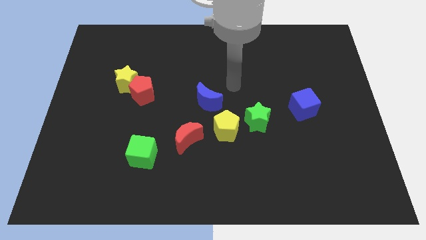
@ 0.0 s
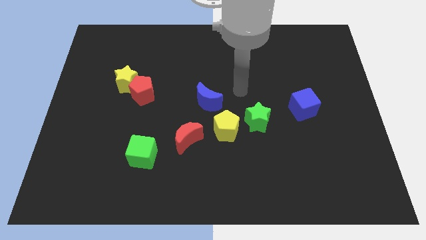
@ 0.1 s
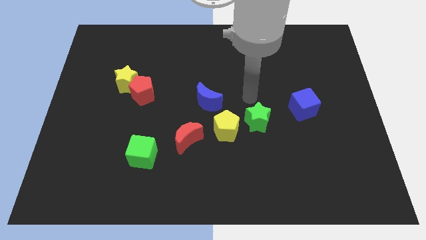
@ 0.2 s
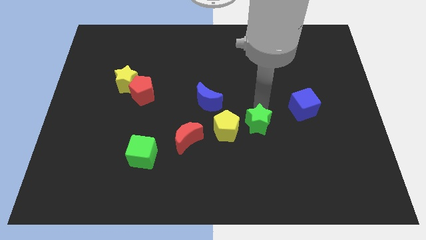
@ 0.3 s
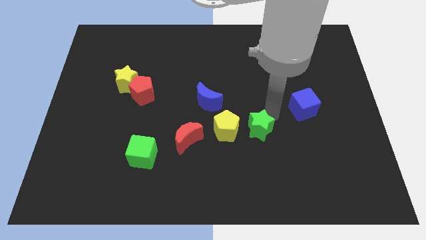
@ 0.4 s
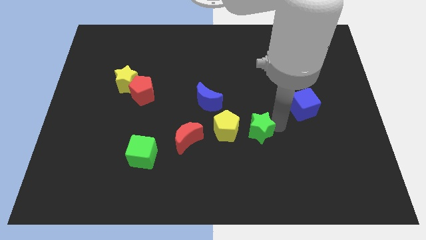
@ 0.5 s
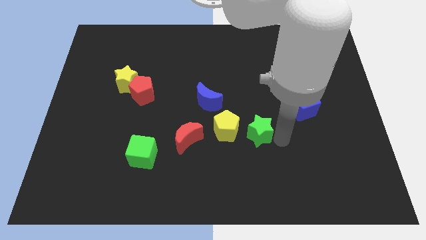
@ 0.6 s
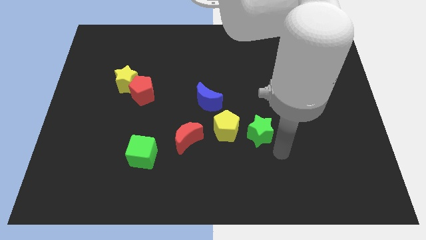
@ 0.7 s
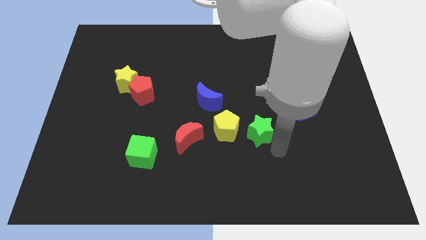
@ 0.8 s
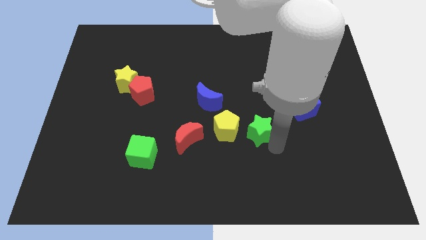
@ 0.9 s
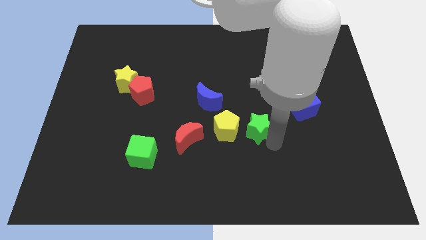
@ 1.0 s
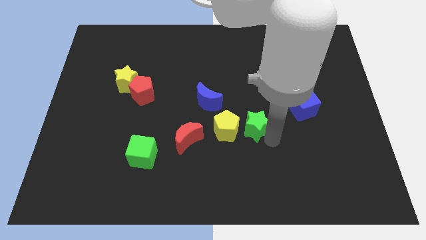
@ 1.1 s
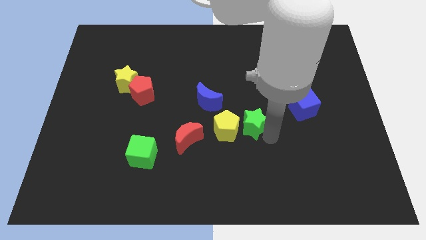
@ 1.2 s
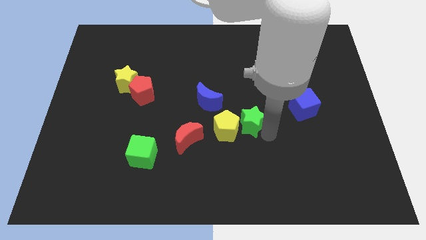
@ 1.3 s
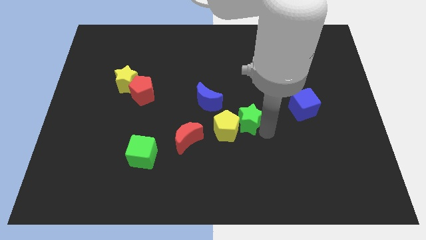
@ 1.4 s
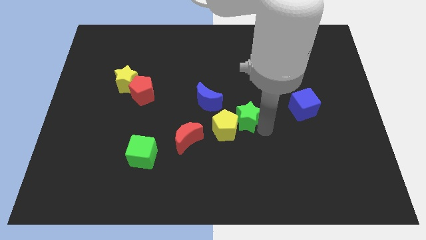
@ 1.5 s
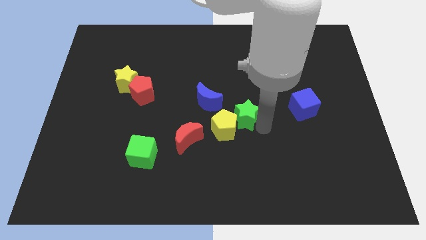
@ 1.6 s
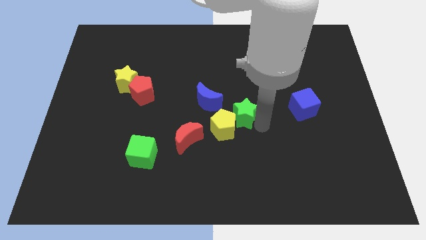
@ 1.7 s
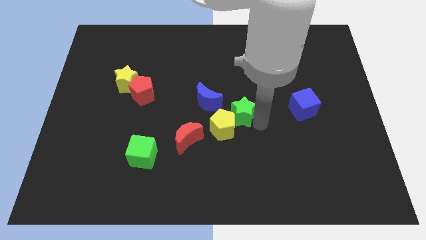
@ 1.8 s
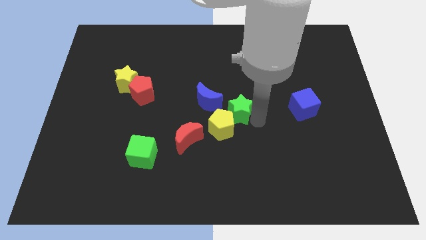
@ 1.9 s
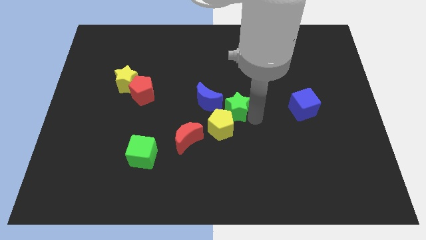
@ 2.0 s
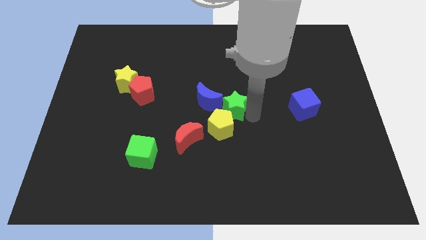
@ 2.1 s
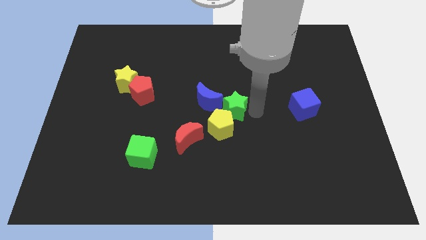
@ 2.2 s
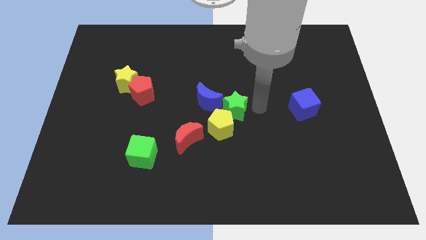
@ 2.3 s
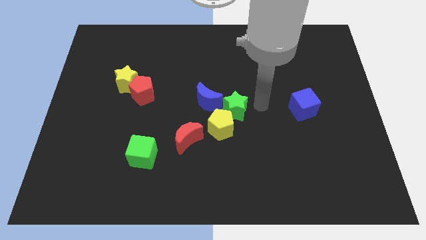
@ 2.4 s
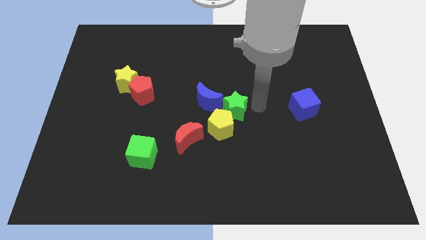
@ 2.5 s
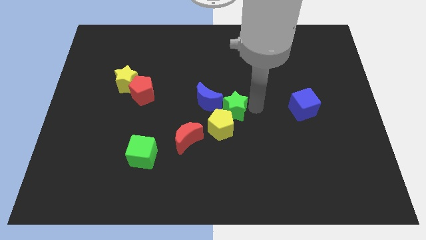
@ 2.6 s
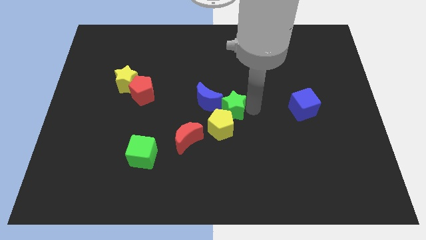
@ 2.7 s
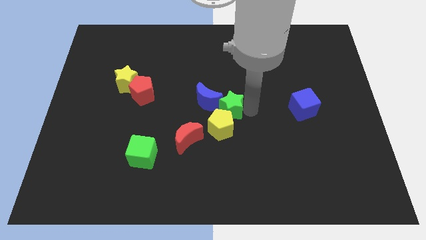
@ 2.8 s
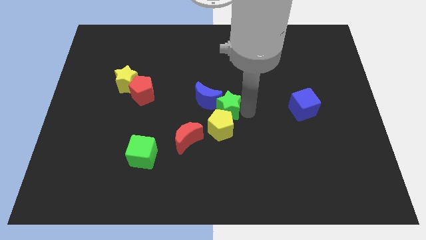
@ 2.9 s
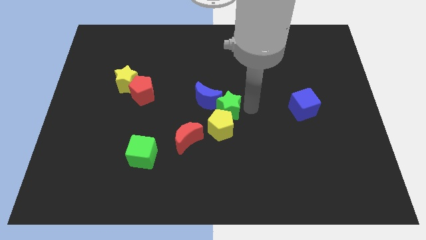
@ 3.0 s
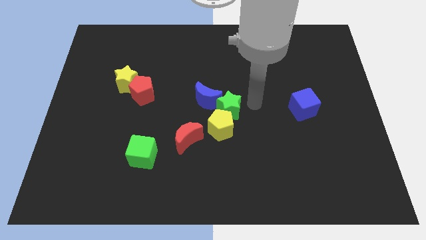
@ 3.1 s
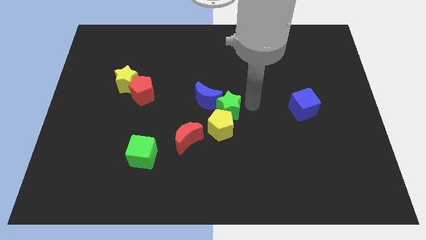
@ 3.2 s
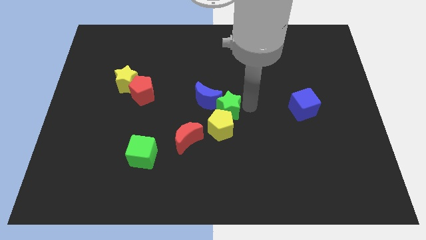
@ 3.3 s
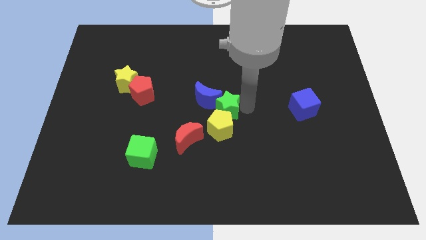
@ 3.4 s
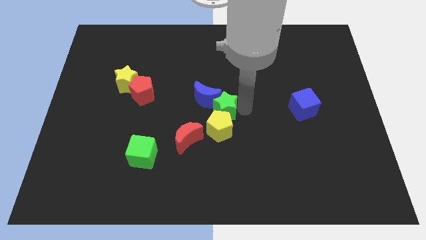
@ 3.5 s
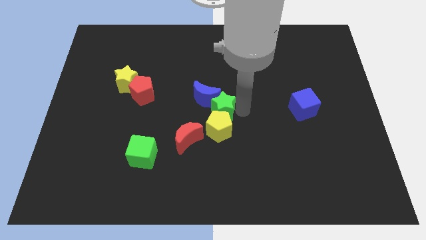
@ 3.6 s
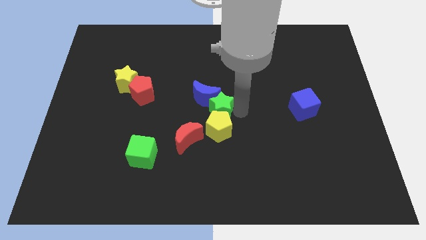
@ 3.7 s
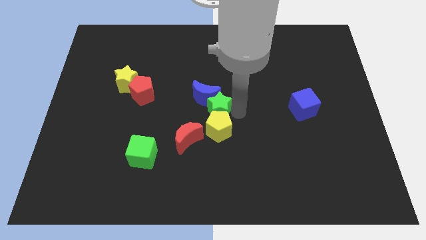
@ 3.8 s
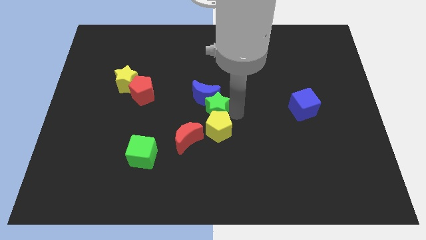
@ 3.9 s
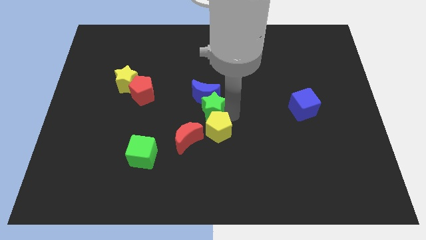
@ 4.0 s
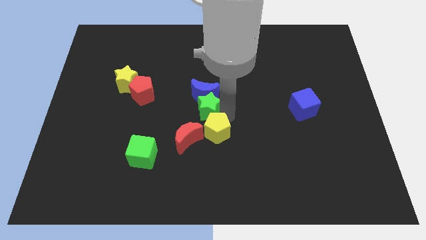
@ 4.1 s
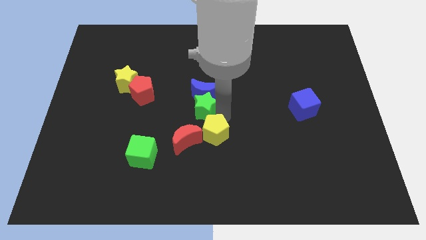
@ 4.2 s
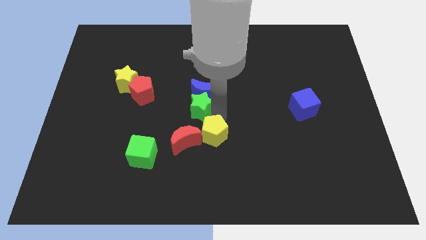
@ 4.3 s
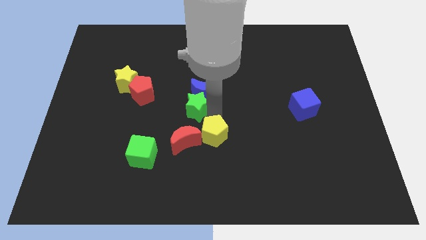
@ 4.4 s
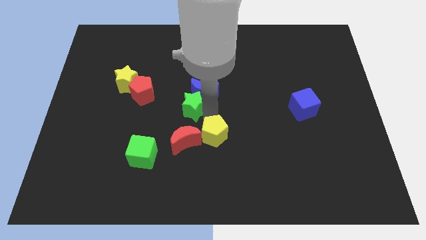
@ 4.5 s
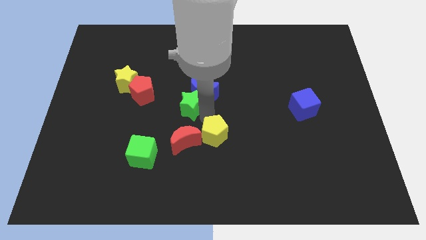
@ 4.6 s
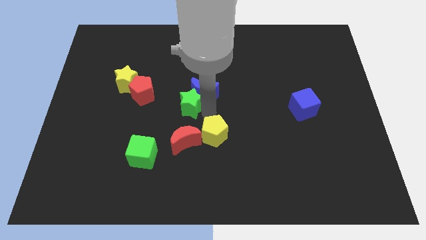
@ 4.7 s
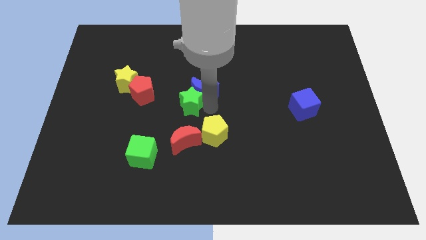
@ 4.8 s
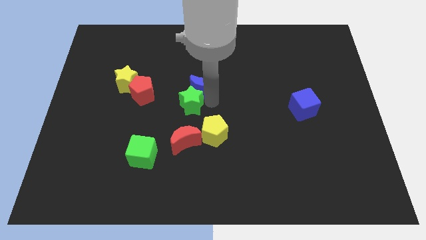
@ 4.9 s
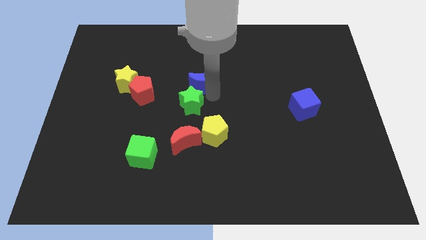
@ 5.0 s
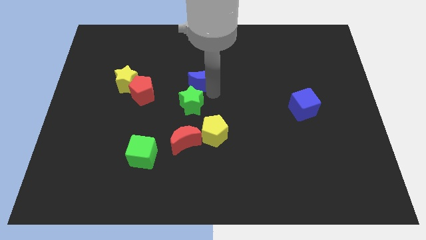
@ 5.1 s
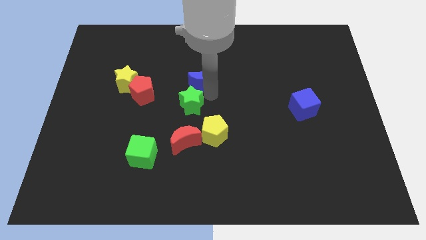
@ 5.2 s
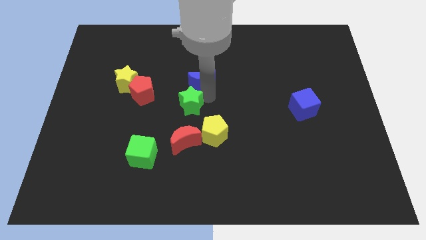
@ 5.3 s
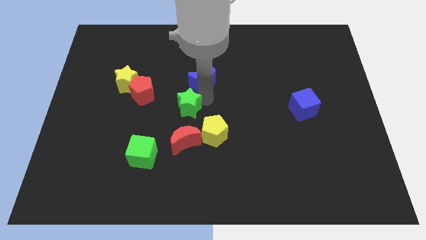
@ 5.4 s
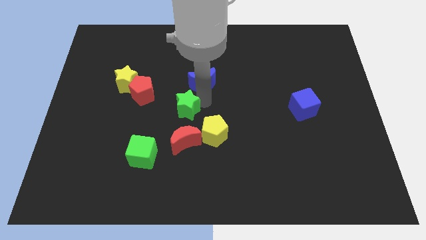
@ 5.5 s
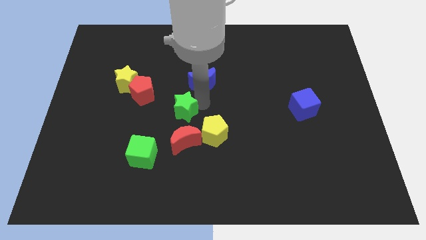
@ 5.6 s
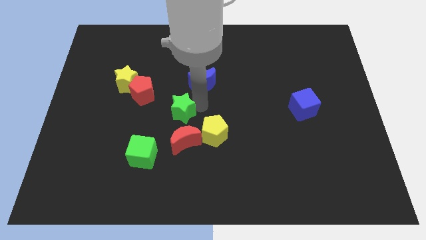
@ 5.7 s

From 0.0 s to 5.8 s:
move the green star to the top left of the red moon

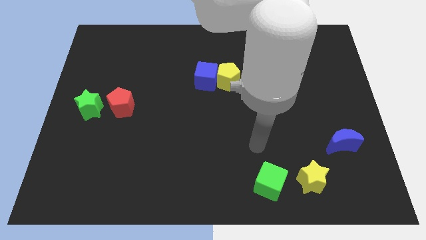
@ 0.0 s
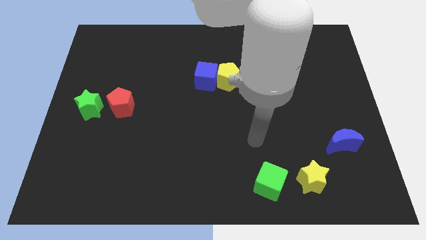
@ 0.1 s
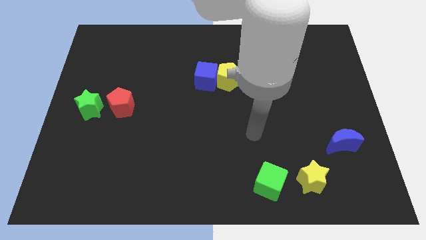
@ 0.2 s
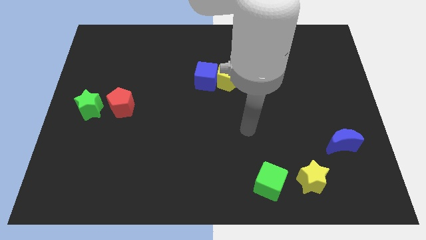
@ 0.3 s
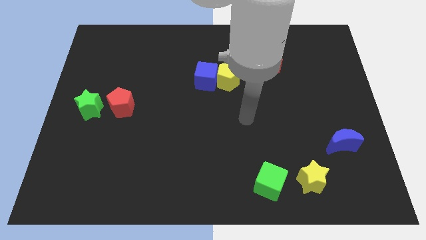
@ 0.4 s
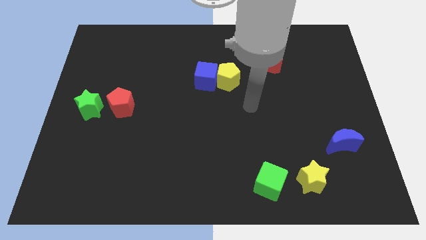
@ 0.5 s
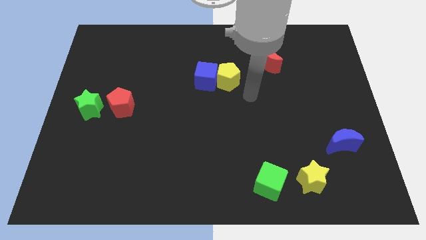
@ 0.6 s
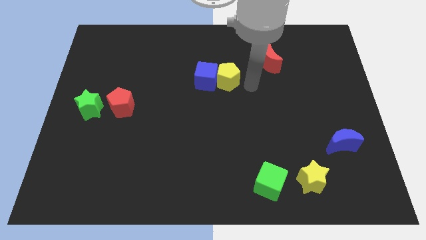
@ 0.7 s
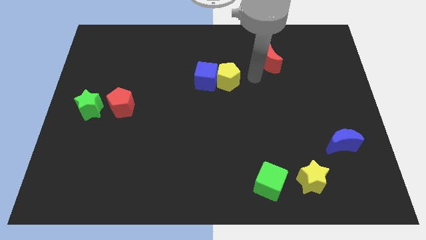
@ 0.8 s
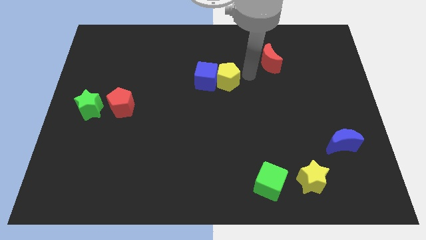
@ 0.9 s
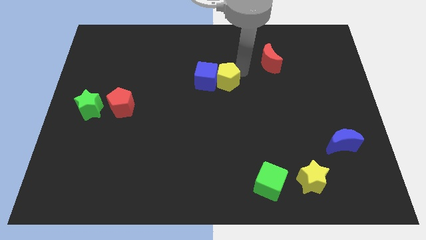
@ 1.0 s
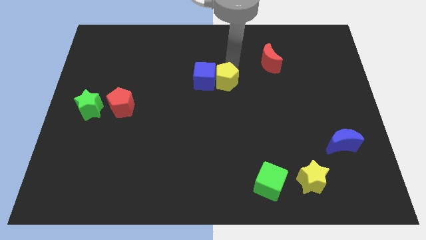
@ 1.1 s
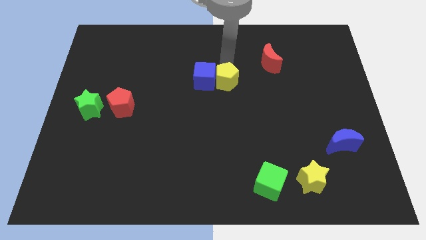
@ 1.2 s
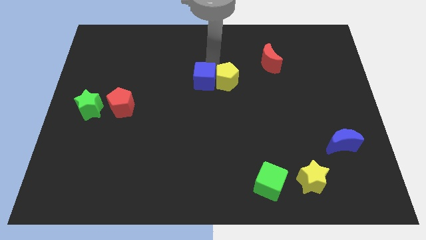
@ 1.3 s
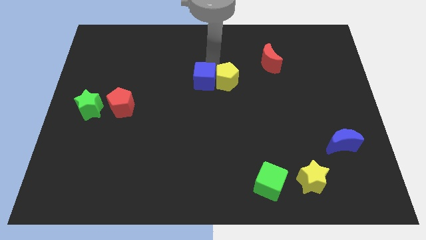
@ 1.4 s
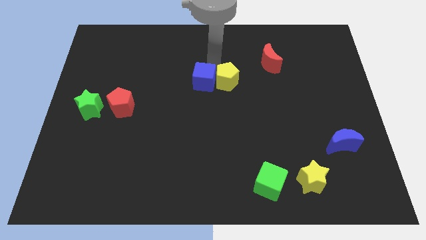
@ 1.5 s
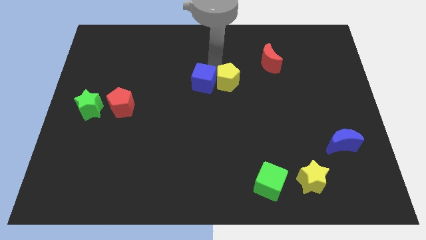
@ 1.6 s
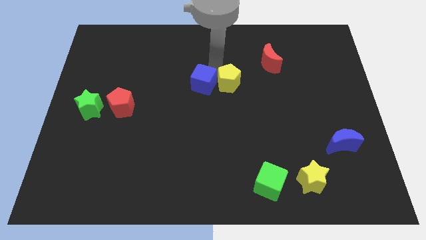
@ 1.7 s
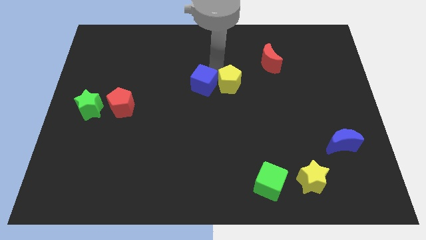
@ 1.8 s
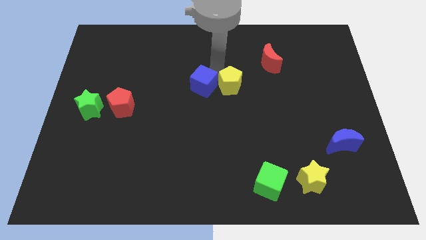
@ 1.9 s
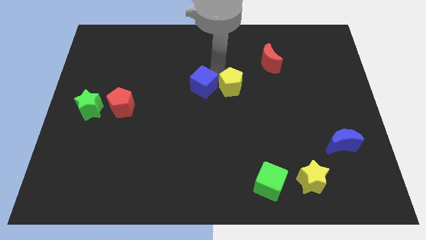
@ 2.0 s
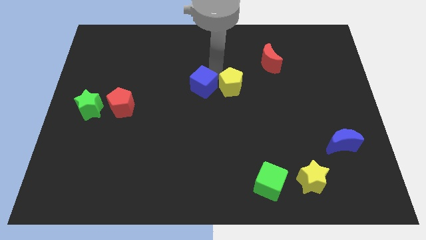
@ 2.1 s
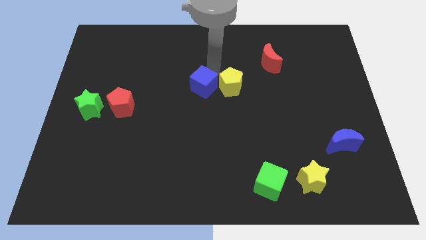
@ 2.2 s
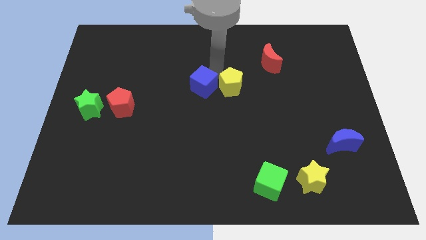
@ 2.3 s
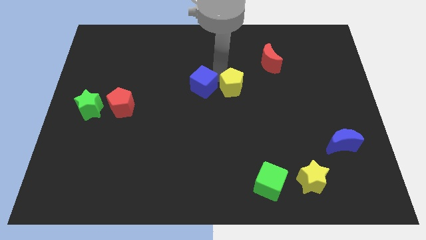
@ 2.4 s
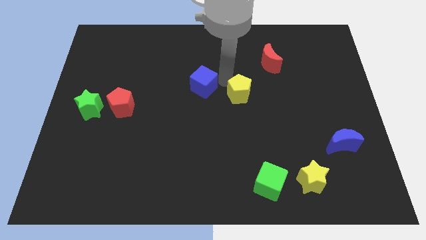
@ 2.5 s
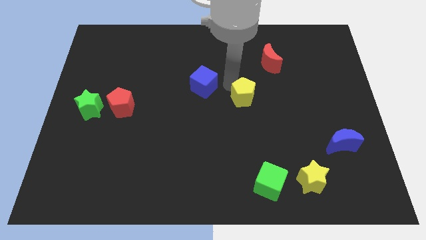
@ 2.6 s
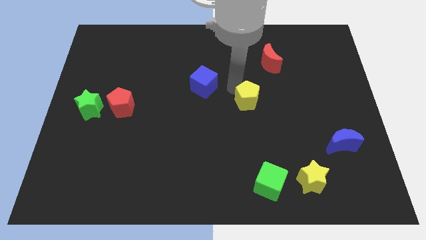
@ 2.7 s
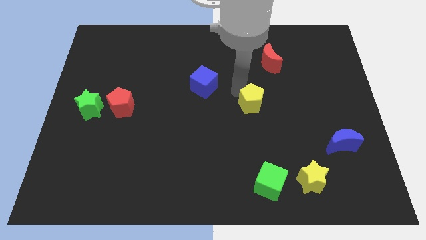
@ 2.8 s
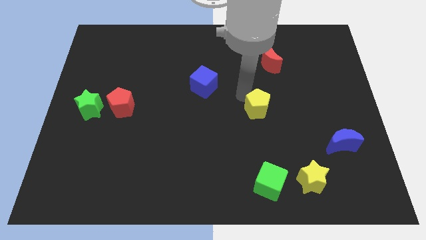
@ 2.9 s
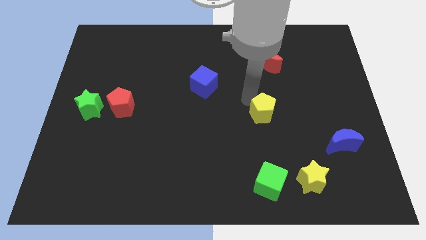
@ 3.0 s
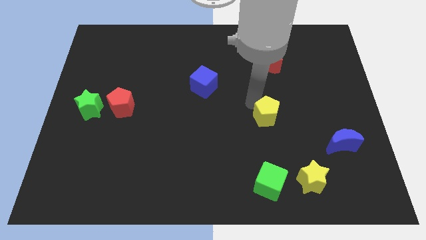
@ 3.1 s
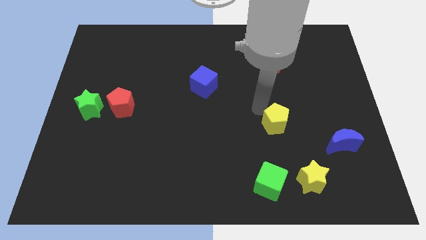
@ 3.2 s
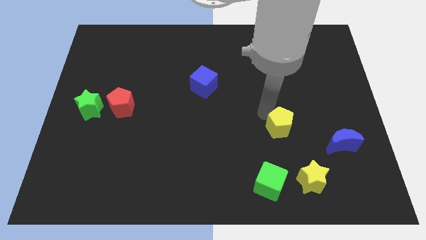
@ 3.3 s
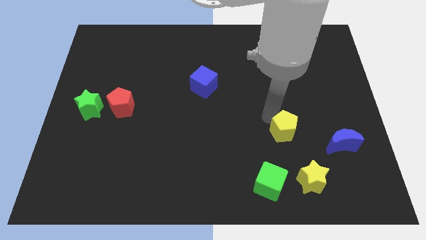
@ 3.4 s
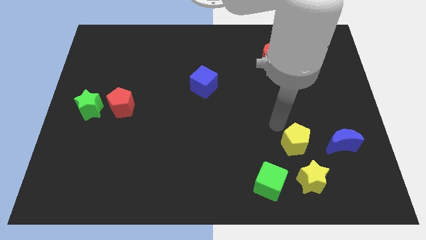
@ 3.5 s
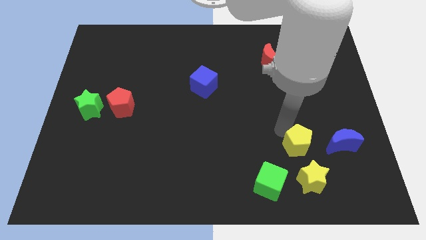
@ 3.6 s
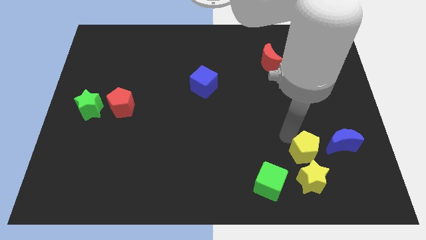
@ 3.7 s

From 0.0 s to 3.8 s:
slide the yellow pentagon to the bottom left side of the blue moon
